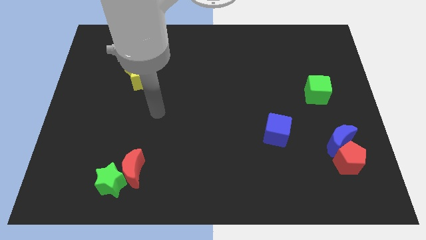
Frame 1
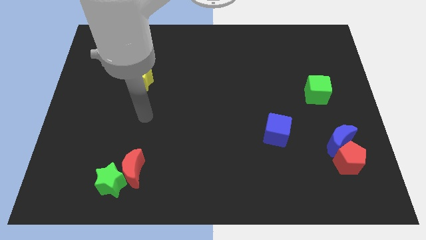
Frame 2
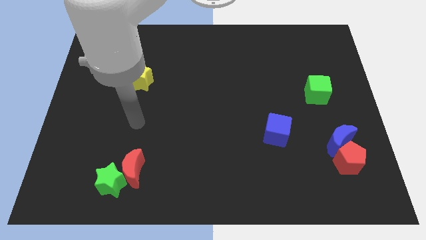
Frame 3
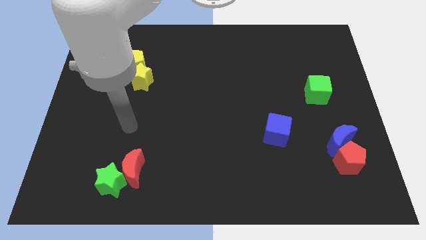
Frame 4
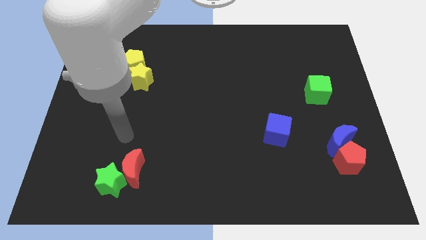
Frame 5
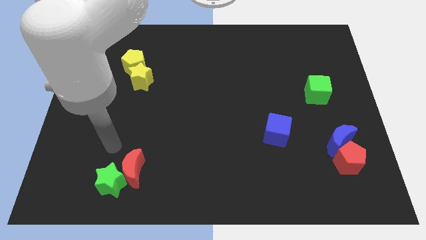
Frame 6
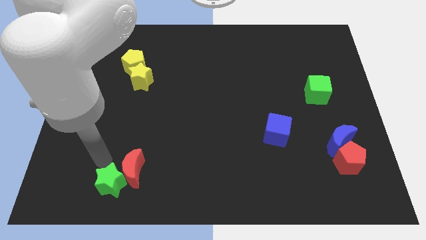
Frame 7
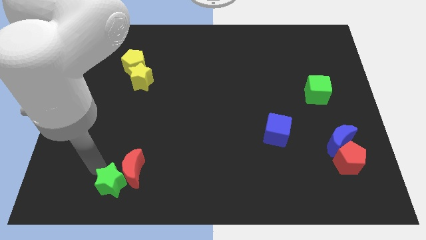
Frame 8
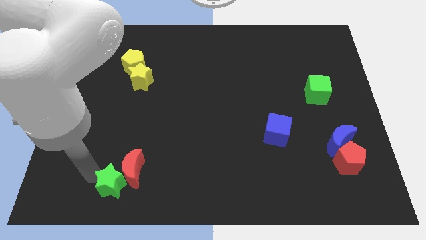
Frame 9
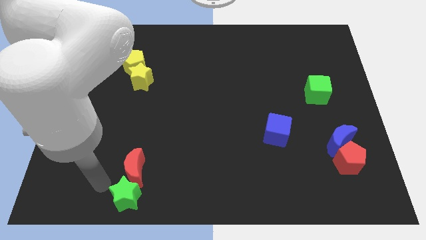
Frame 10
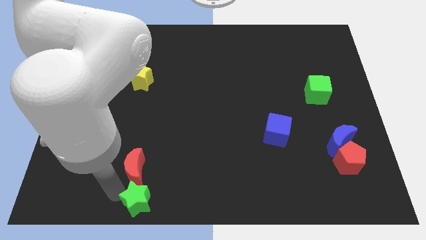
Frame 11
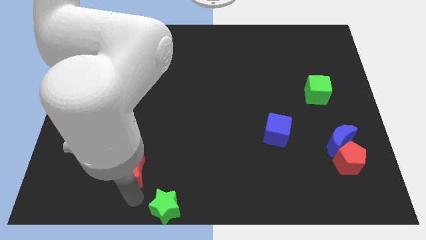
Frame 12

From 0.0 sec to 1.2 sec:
separate the red moon from the green star

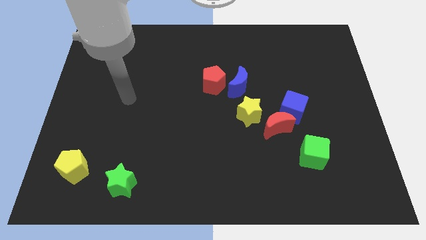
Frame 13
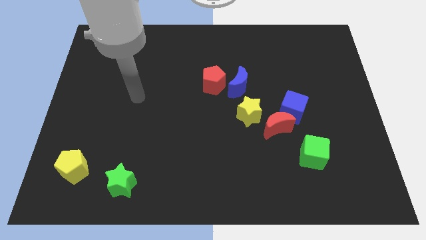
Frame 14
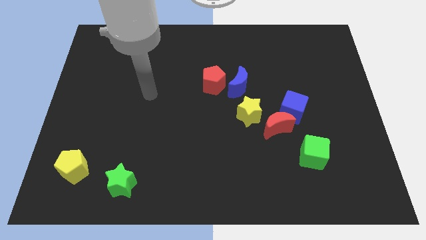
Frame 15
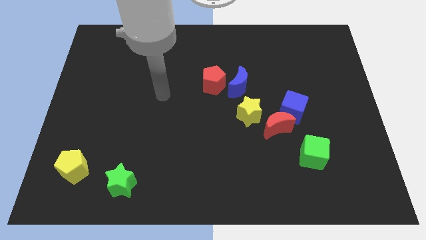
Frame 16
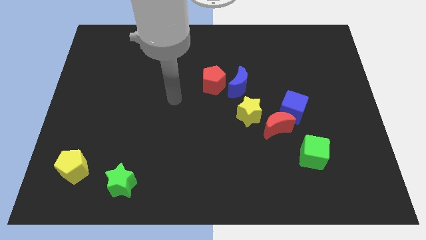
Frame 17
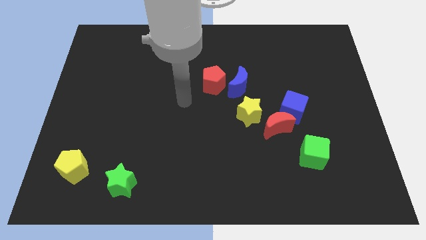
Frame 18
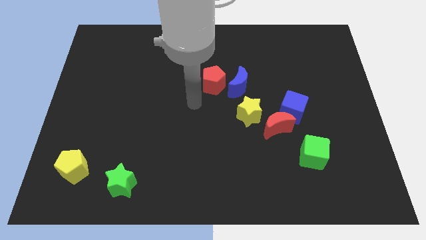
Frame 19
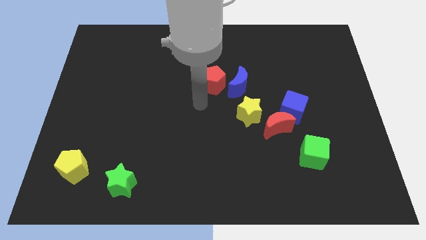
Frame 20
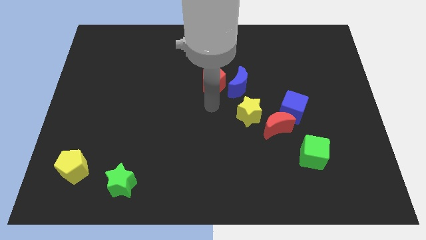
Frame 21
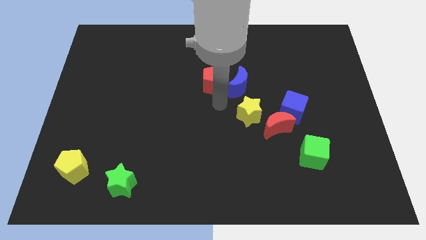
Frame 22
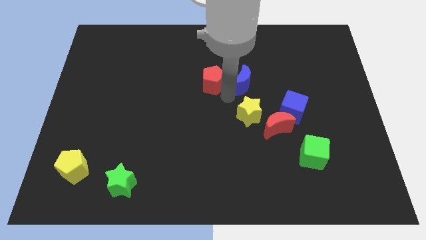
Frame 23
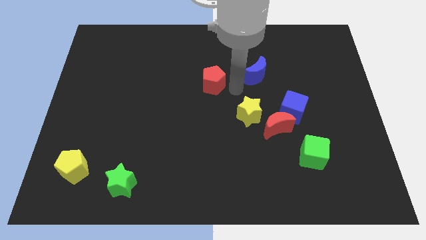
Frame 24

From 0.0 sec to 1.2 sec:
move the red pentagon away from the blue moon

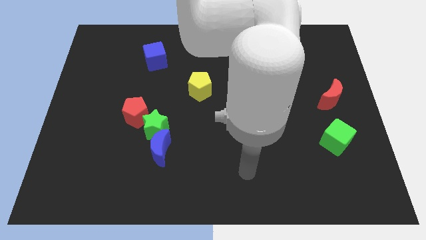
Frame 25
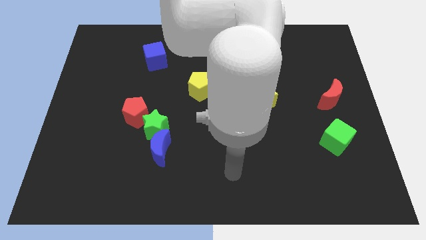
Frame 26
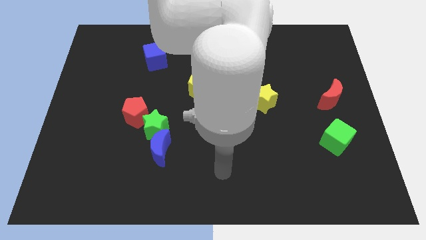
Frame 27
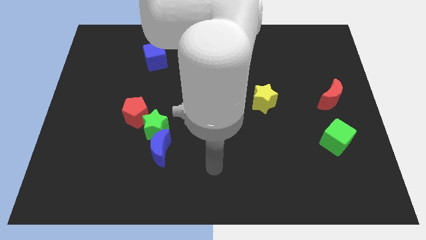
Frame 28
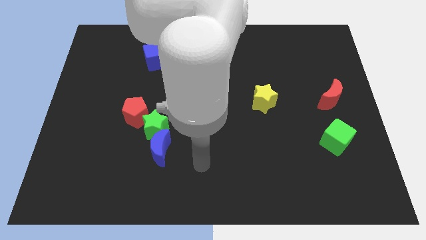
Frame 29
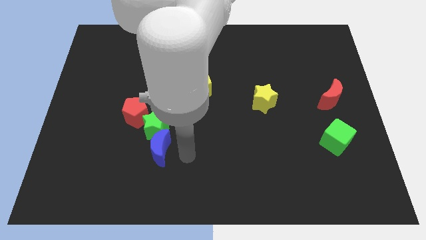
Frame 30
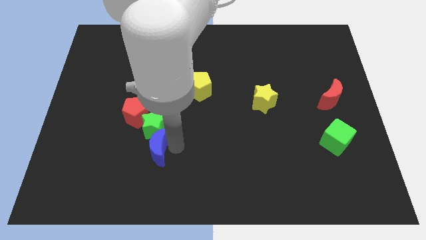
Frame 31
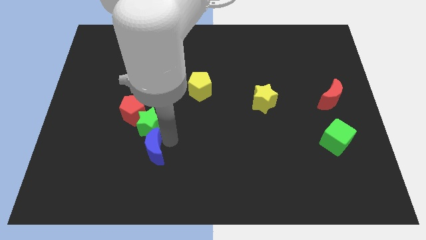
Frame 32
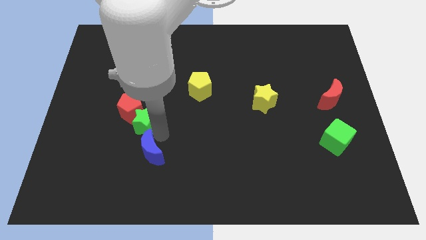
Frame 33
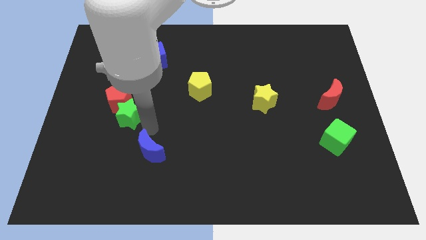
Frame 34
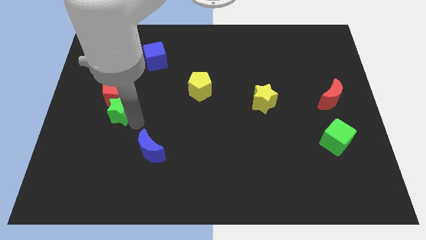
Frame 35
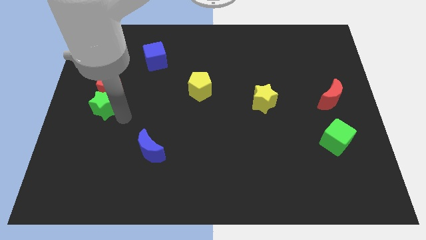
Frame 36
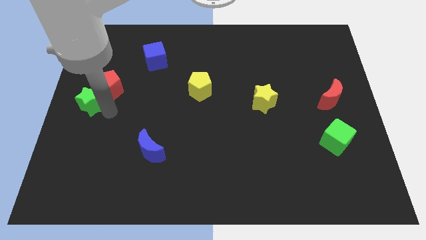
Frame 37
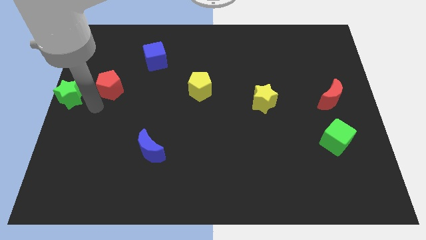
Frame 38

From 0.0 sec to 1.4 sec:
separate the red pentagon from the green star

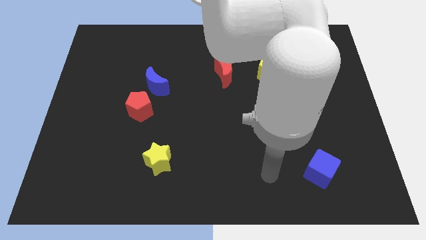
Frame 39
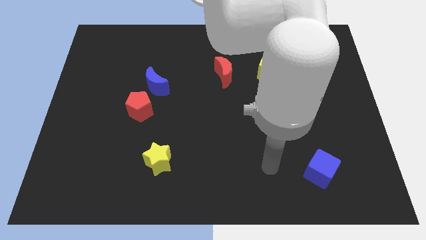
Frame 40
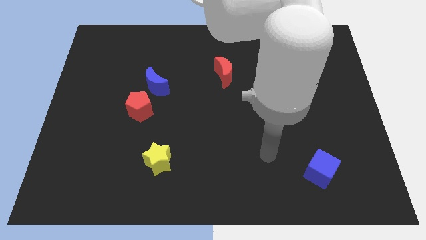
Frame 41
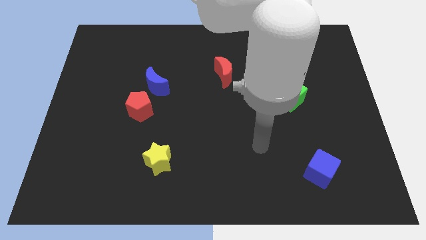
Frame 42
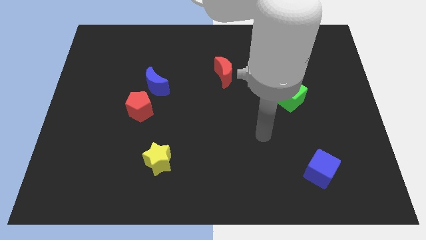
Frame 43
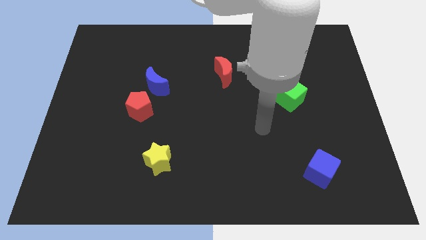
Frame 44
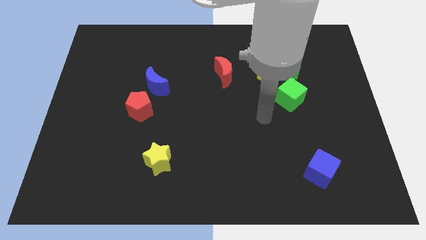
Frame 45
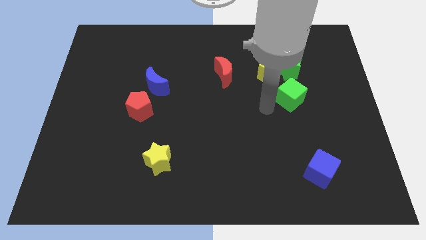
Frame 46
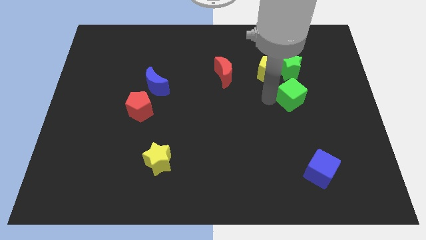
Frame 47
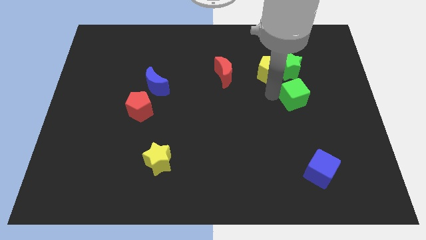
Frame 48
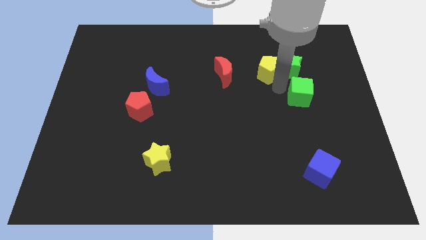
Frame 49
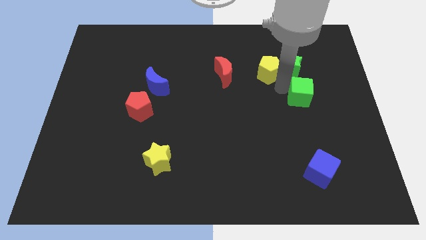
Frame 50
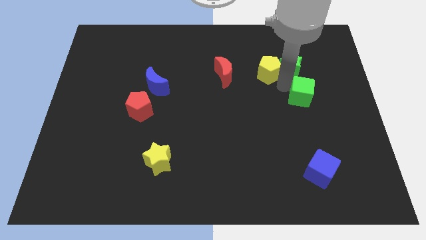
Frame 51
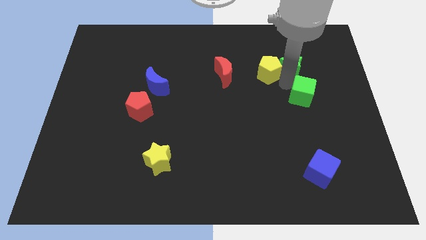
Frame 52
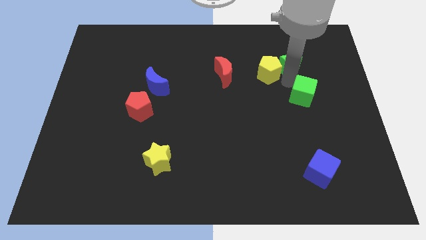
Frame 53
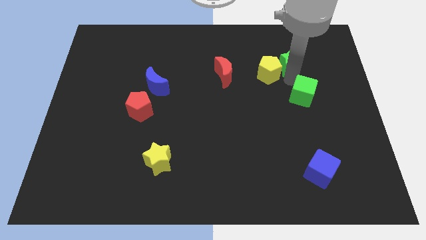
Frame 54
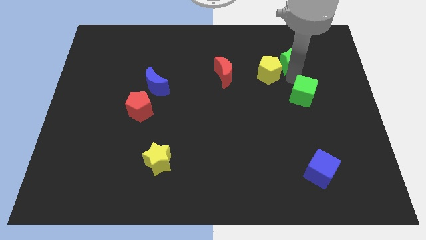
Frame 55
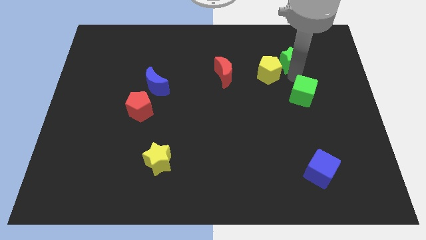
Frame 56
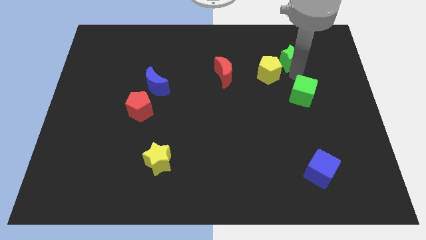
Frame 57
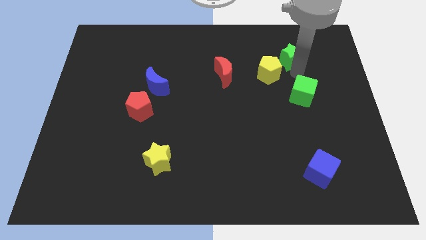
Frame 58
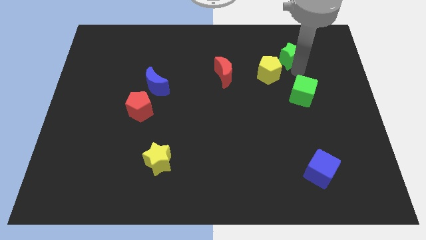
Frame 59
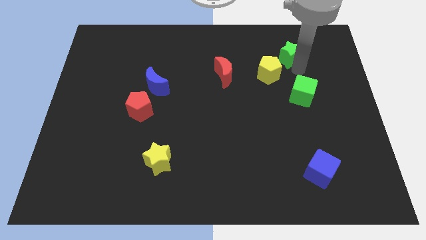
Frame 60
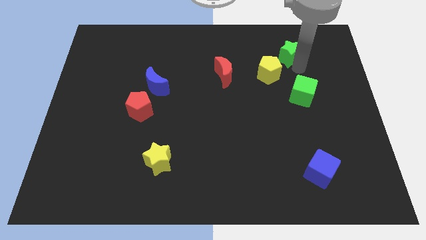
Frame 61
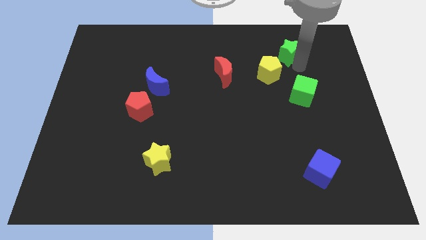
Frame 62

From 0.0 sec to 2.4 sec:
move the green star away from the yellow pentagon and green cube

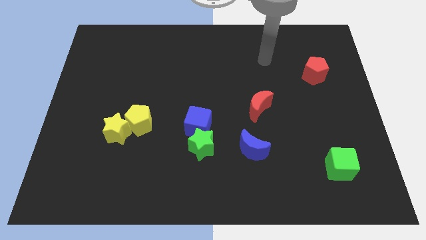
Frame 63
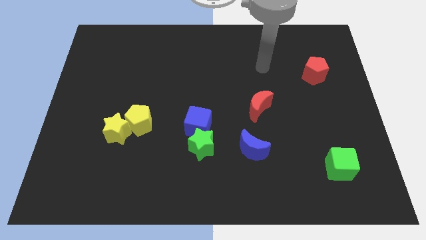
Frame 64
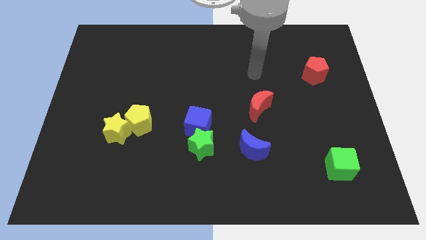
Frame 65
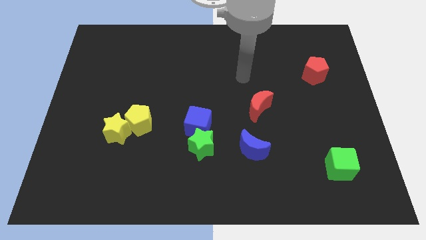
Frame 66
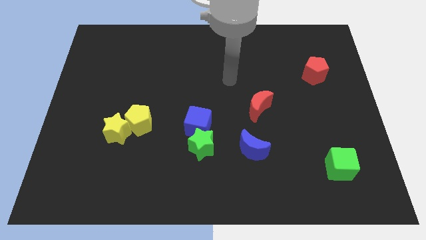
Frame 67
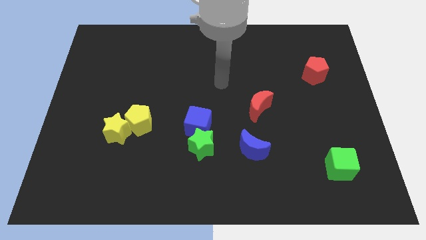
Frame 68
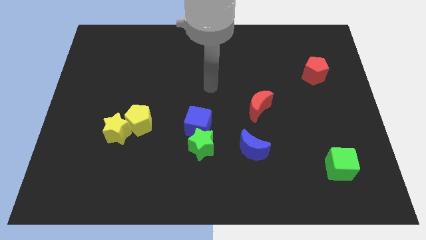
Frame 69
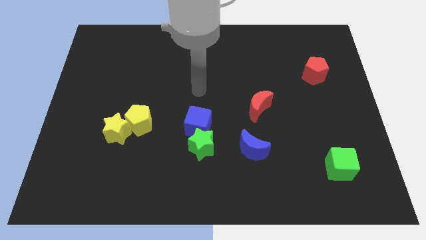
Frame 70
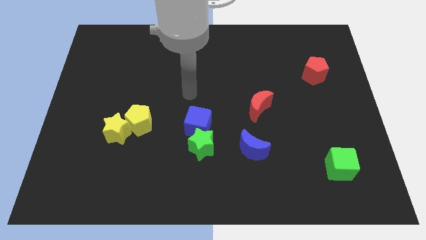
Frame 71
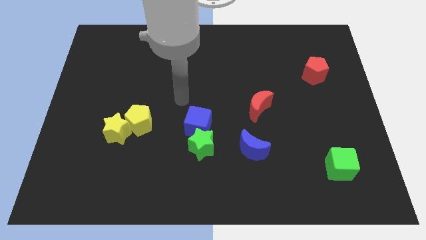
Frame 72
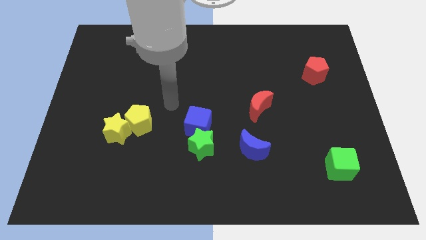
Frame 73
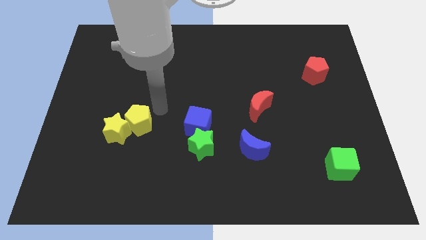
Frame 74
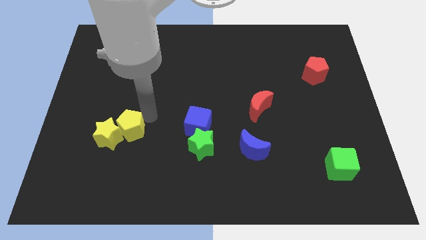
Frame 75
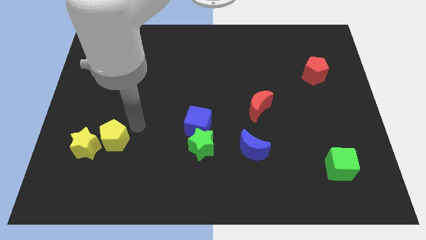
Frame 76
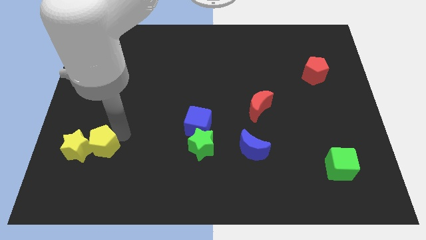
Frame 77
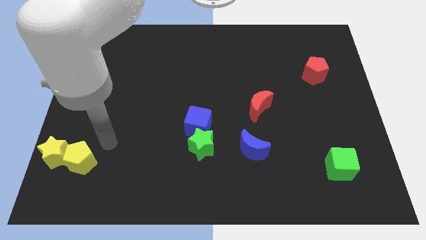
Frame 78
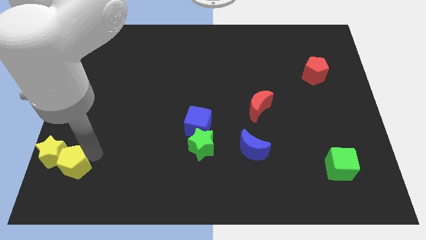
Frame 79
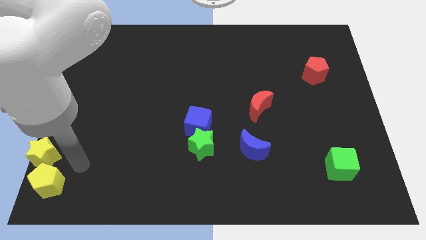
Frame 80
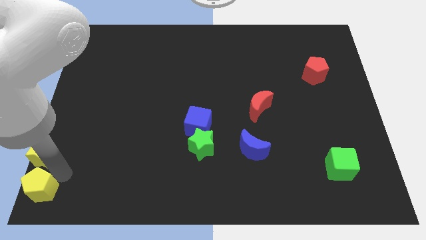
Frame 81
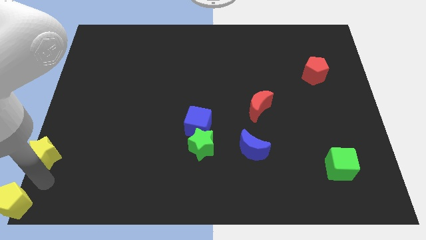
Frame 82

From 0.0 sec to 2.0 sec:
pull the yellow star apart from the yellow pentagon

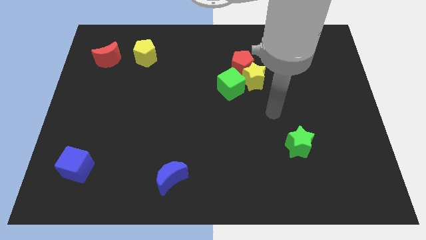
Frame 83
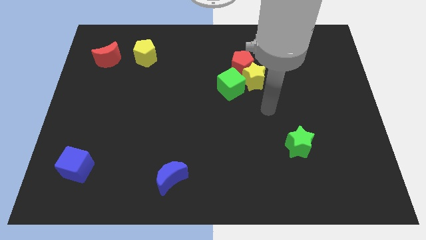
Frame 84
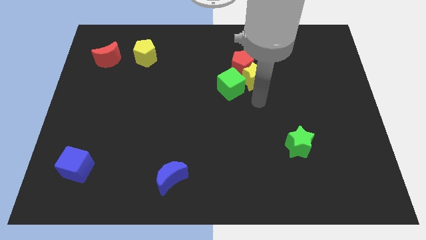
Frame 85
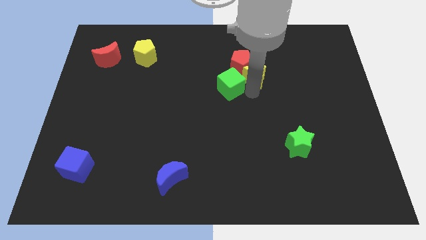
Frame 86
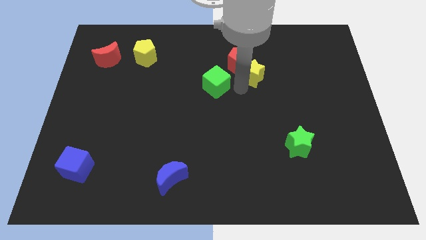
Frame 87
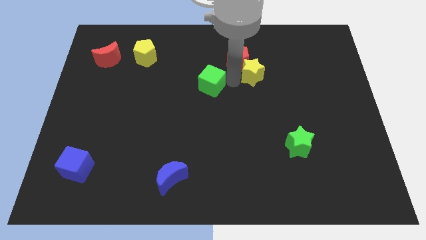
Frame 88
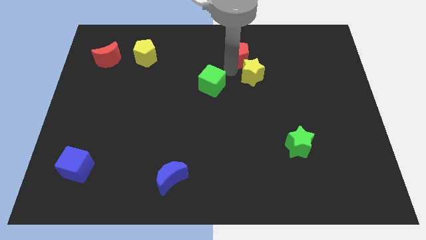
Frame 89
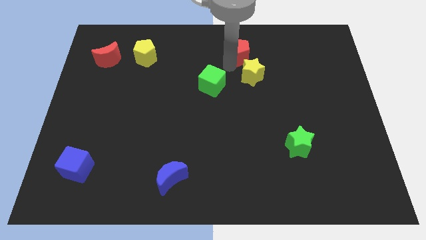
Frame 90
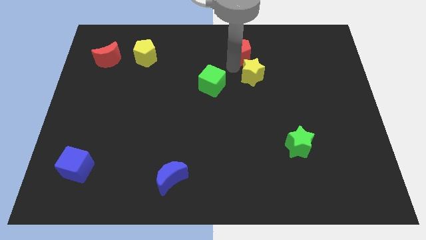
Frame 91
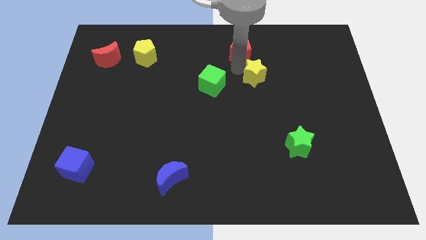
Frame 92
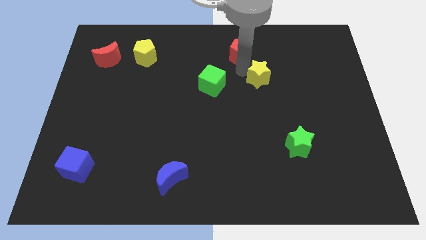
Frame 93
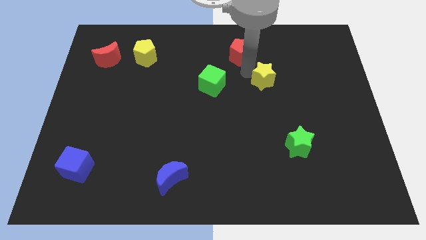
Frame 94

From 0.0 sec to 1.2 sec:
pull the yellow star apart from the red pentagon and green cube
